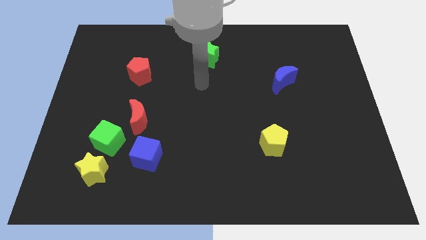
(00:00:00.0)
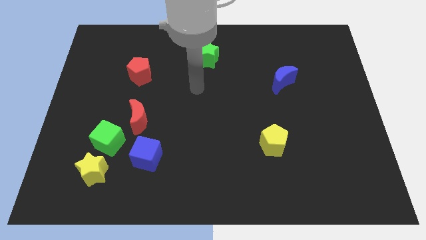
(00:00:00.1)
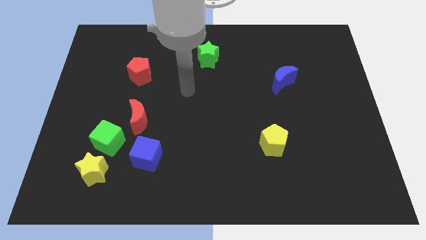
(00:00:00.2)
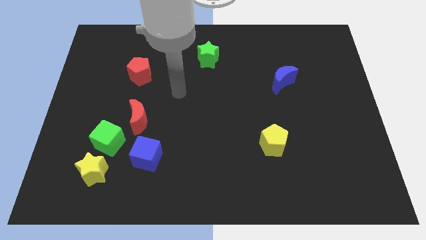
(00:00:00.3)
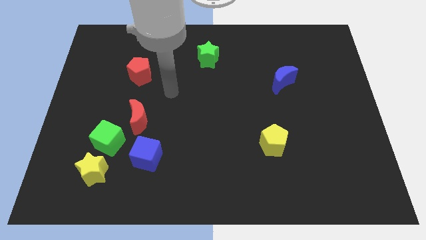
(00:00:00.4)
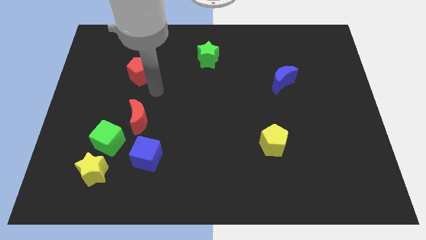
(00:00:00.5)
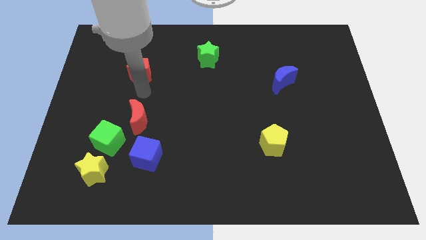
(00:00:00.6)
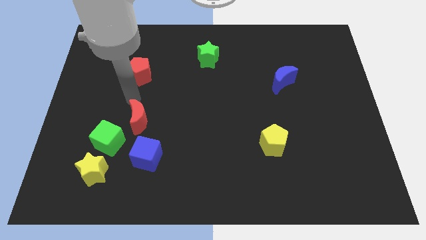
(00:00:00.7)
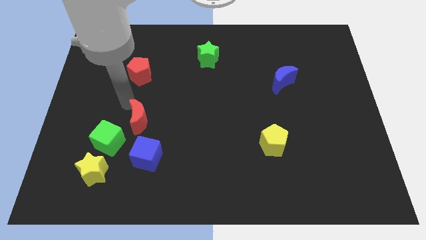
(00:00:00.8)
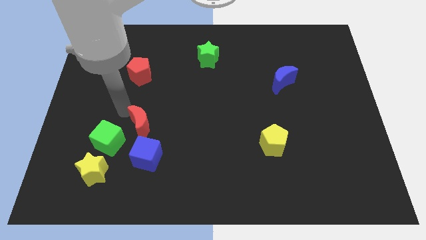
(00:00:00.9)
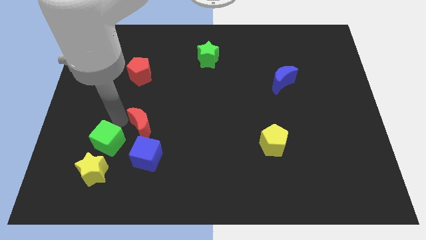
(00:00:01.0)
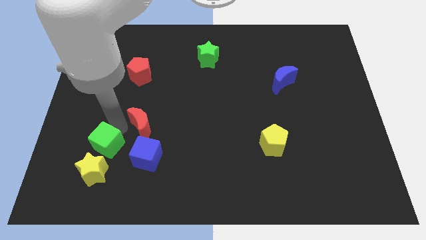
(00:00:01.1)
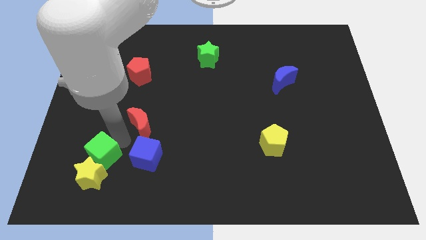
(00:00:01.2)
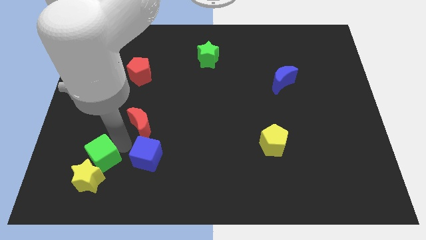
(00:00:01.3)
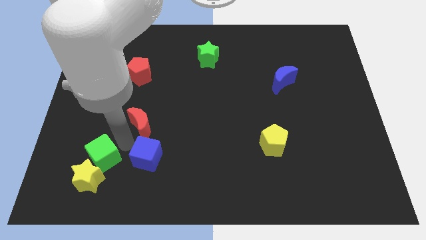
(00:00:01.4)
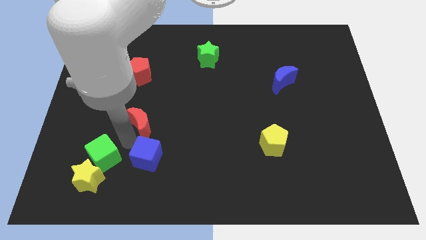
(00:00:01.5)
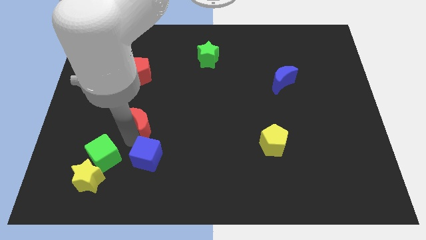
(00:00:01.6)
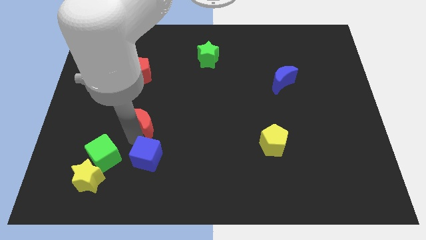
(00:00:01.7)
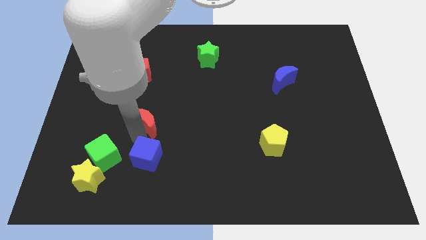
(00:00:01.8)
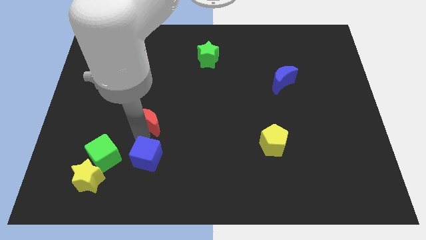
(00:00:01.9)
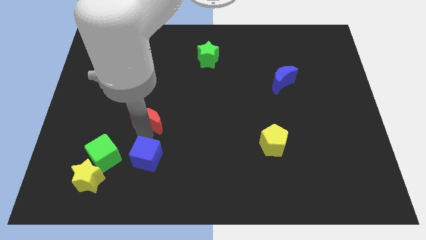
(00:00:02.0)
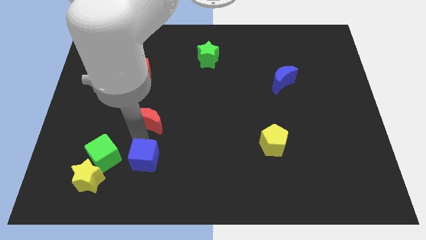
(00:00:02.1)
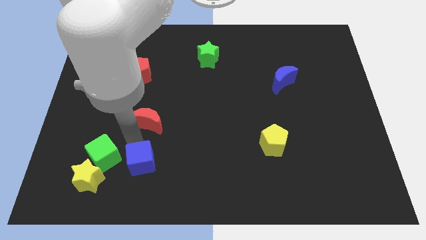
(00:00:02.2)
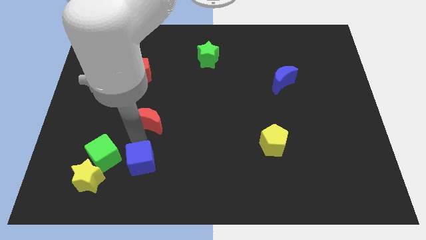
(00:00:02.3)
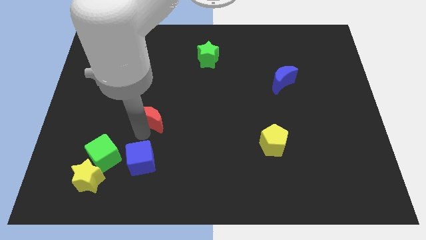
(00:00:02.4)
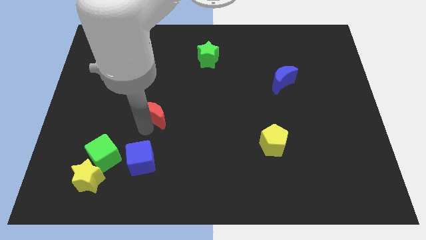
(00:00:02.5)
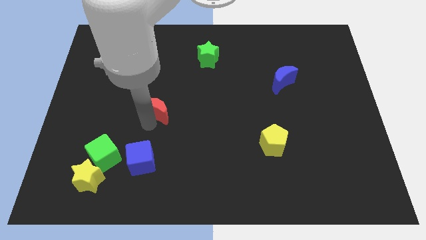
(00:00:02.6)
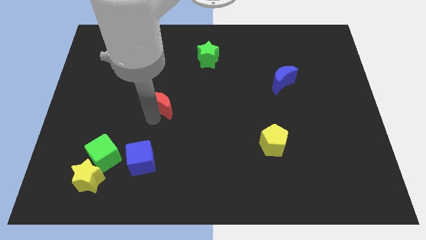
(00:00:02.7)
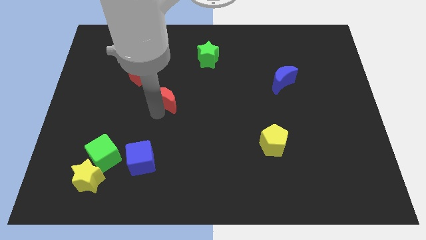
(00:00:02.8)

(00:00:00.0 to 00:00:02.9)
move the red moon a bit upwards and right diagonally

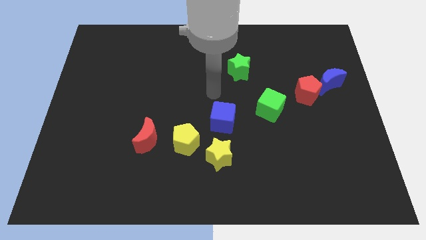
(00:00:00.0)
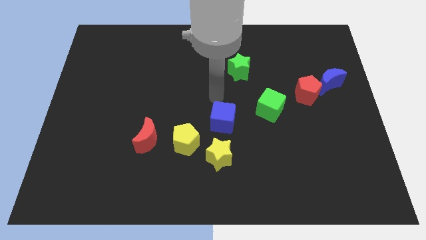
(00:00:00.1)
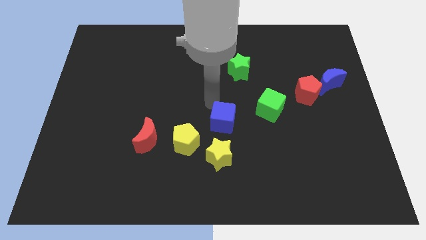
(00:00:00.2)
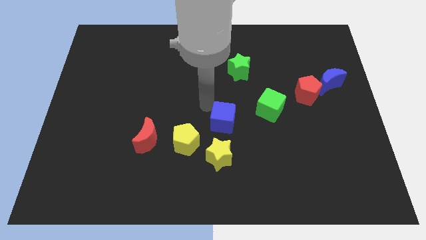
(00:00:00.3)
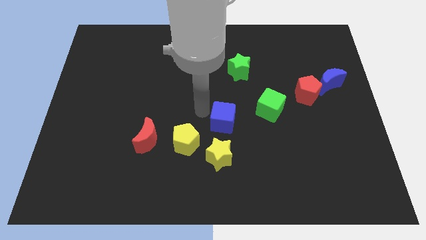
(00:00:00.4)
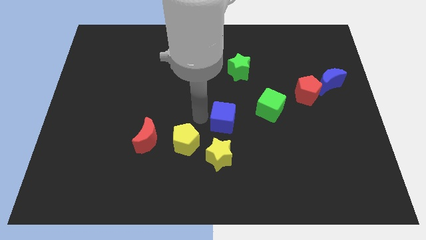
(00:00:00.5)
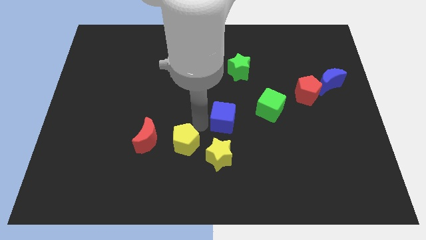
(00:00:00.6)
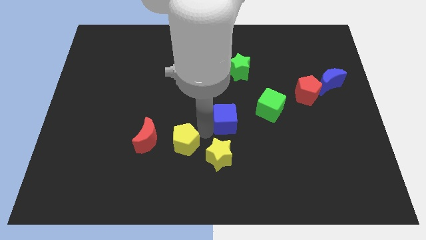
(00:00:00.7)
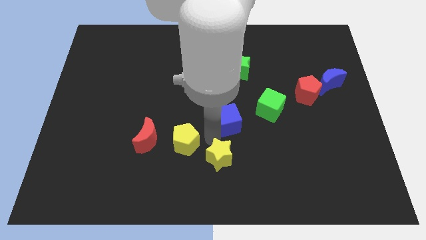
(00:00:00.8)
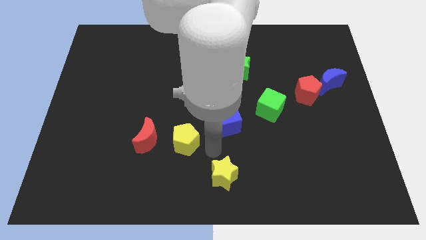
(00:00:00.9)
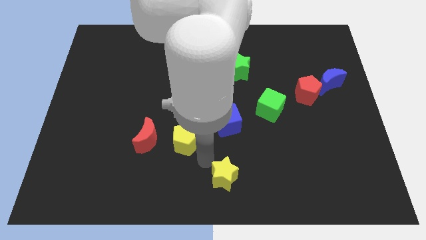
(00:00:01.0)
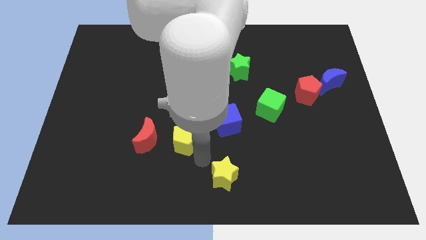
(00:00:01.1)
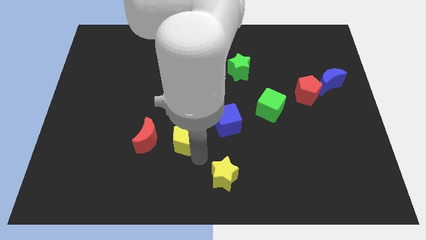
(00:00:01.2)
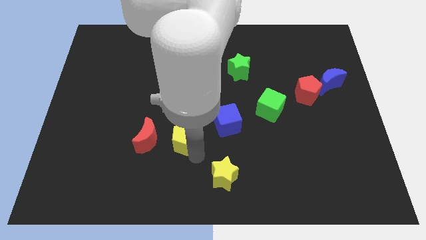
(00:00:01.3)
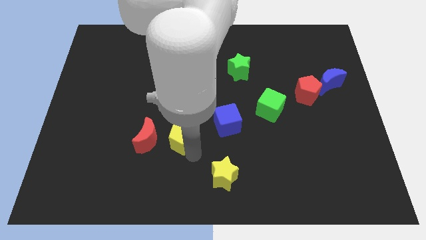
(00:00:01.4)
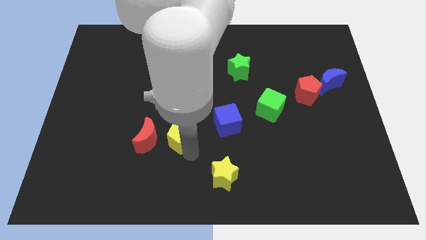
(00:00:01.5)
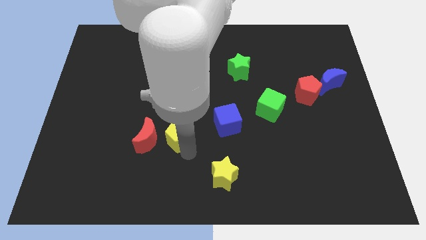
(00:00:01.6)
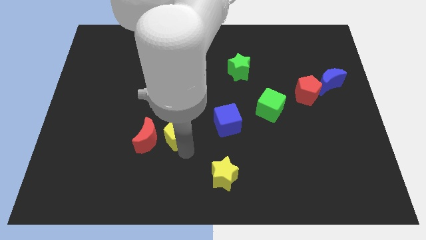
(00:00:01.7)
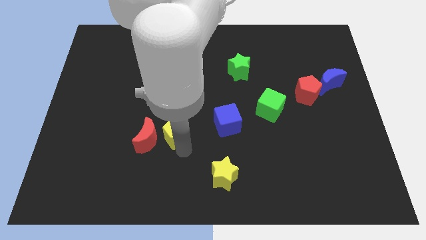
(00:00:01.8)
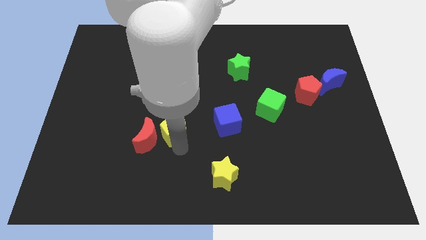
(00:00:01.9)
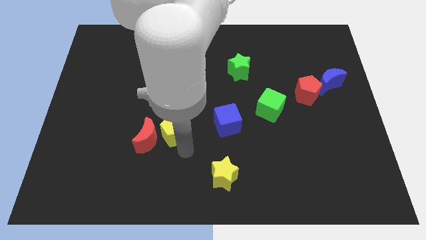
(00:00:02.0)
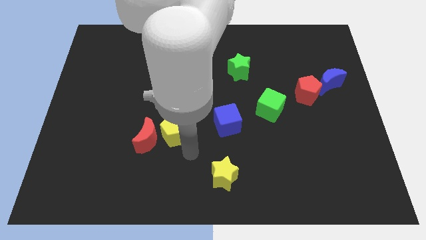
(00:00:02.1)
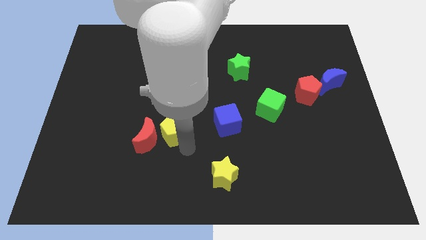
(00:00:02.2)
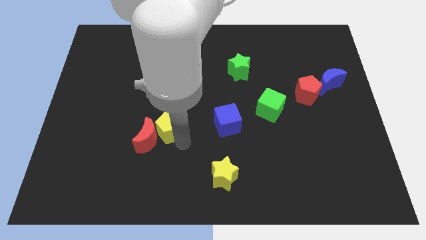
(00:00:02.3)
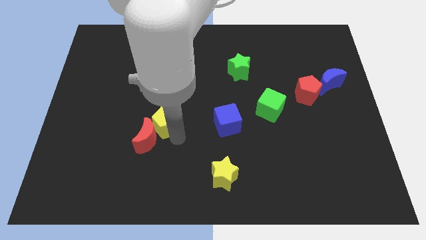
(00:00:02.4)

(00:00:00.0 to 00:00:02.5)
slightly push the yellow pentagon upwards and then left

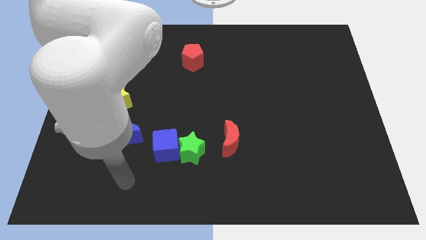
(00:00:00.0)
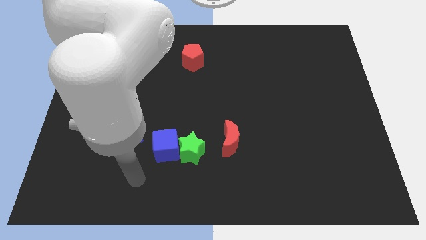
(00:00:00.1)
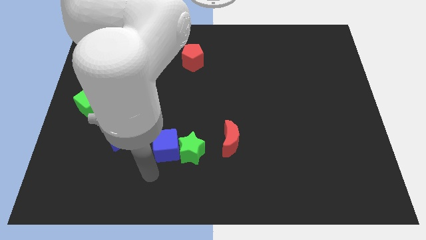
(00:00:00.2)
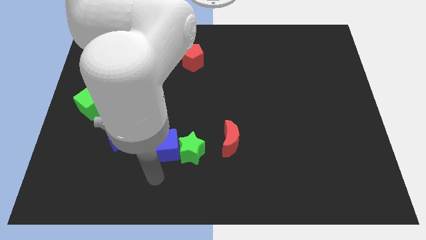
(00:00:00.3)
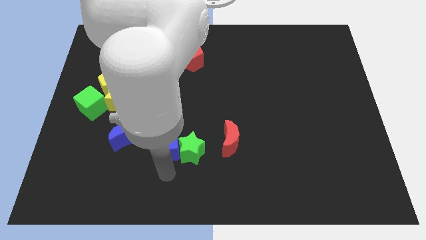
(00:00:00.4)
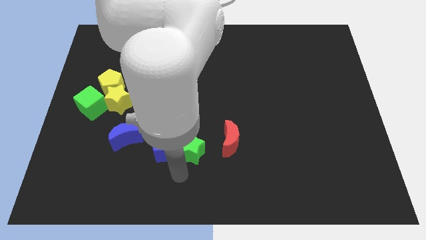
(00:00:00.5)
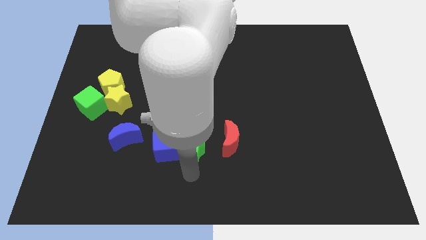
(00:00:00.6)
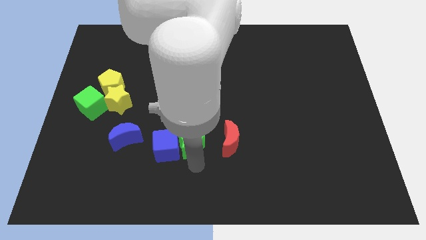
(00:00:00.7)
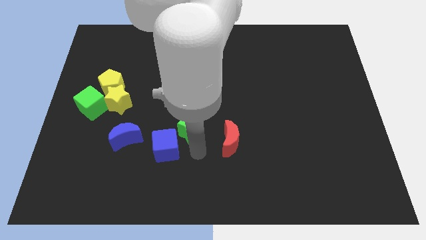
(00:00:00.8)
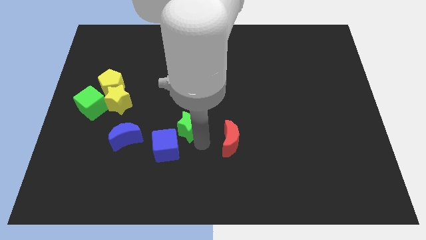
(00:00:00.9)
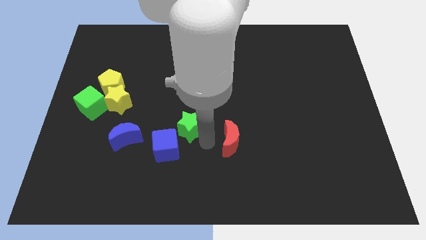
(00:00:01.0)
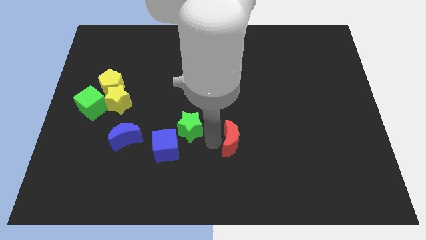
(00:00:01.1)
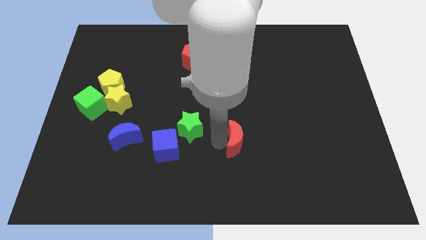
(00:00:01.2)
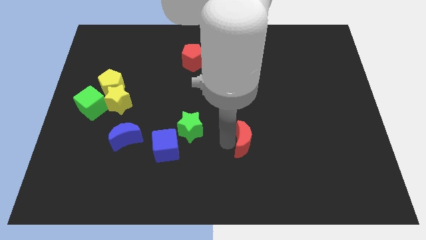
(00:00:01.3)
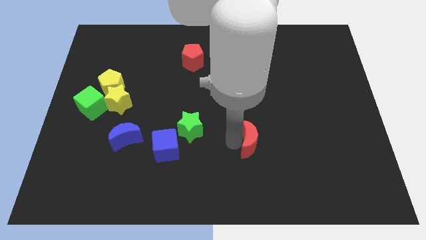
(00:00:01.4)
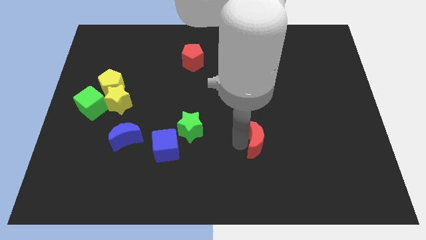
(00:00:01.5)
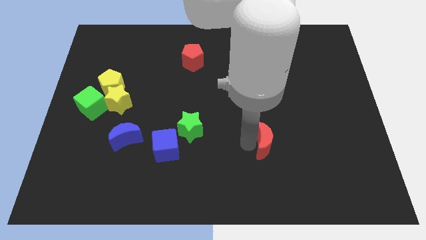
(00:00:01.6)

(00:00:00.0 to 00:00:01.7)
move the red moon right slightly

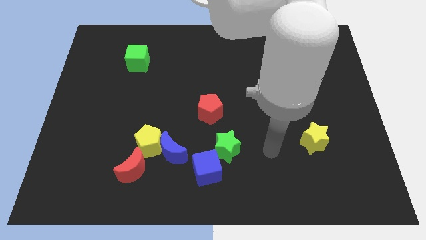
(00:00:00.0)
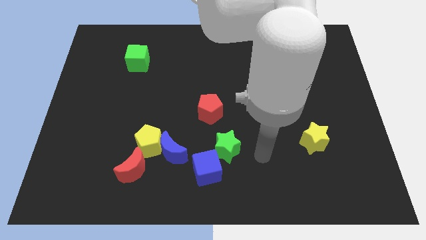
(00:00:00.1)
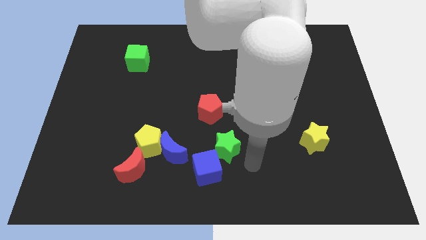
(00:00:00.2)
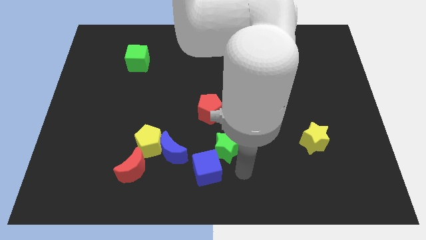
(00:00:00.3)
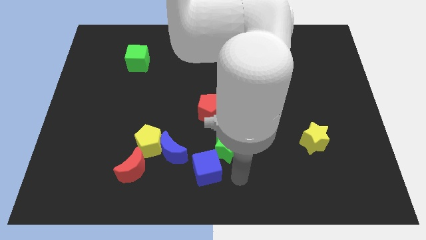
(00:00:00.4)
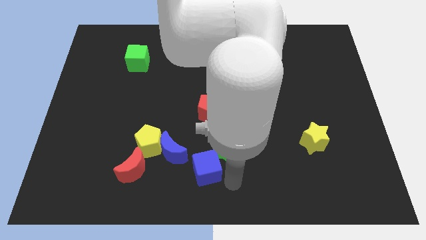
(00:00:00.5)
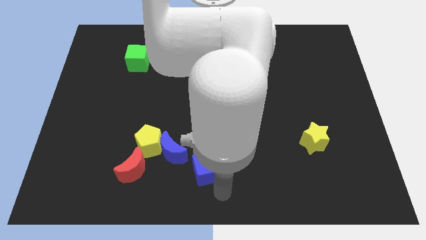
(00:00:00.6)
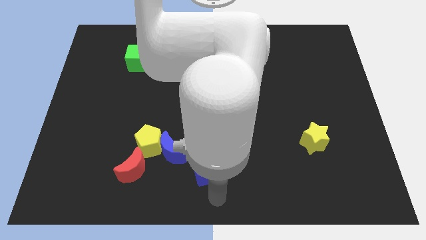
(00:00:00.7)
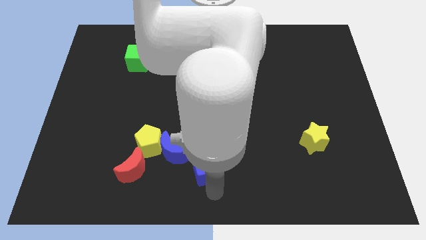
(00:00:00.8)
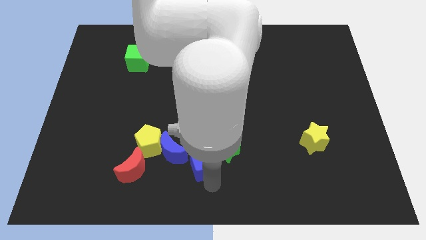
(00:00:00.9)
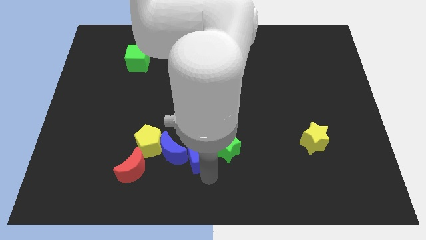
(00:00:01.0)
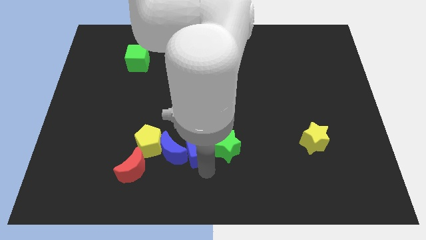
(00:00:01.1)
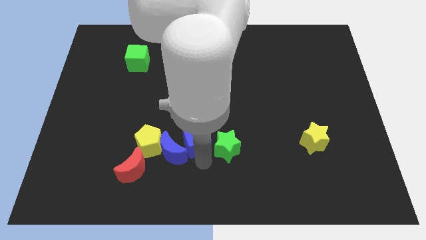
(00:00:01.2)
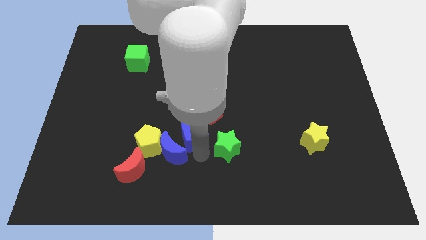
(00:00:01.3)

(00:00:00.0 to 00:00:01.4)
slide the blue cube a bit up
